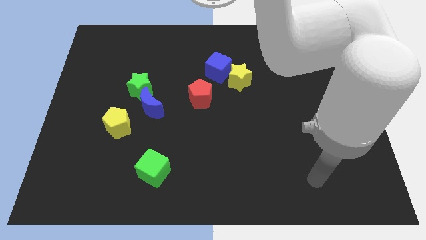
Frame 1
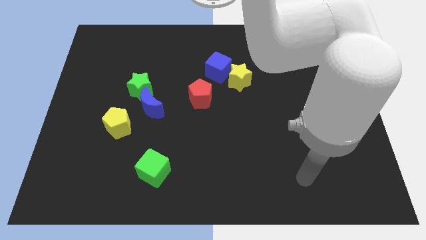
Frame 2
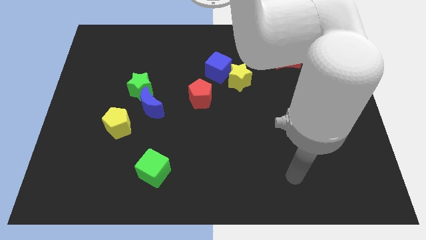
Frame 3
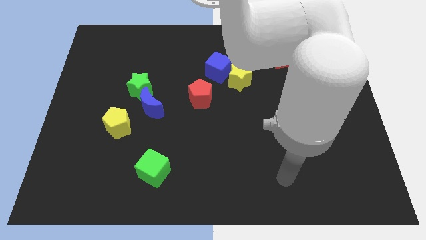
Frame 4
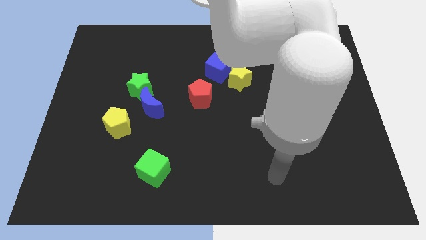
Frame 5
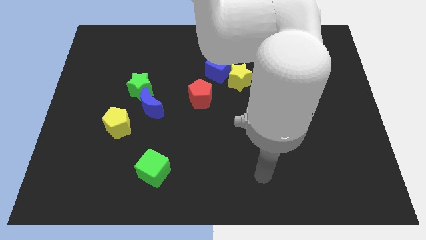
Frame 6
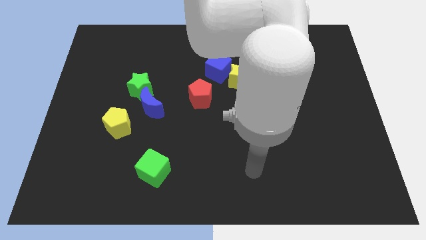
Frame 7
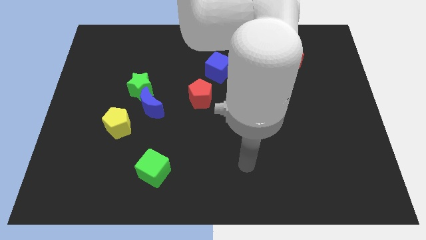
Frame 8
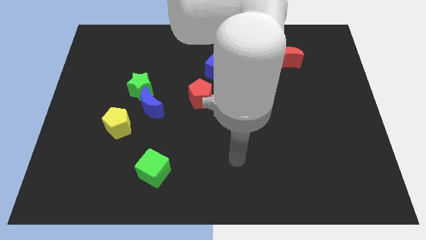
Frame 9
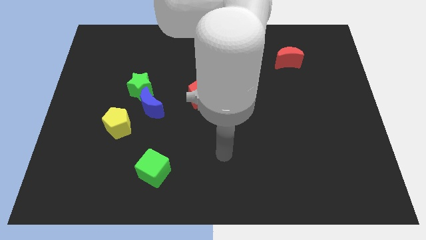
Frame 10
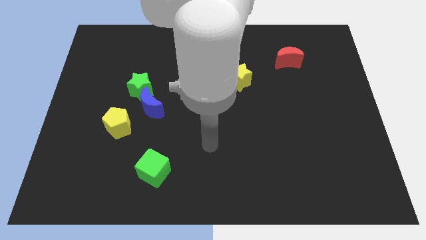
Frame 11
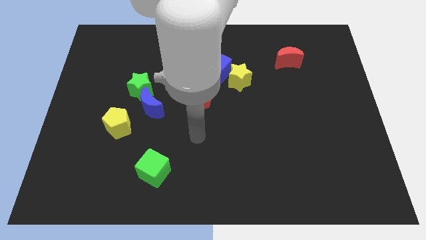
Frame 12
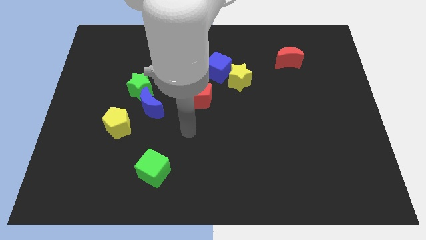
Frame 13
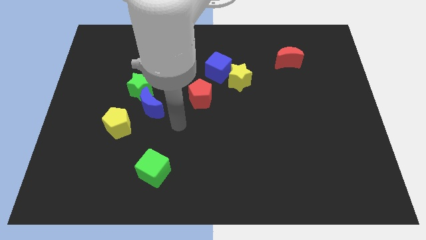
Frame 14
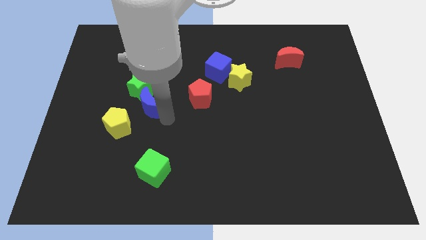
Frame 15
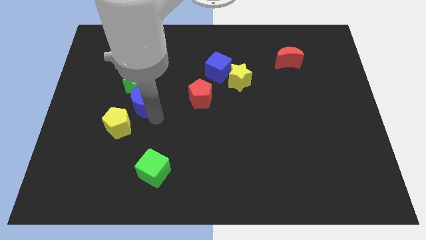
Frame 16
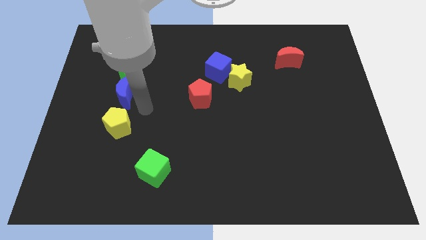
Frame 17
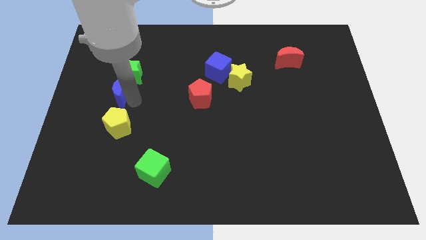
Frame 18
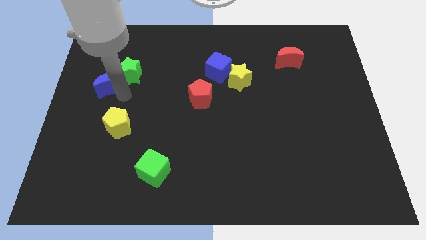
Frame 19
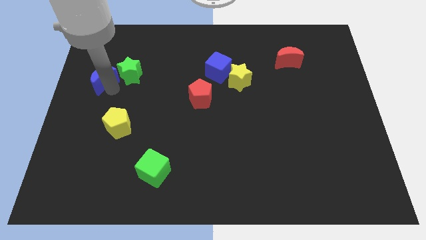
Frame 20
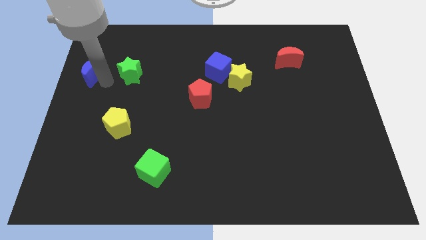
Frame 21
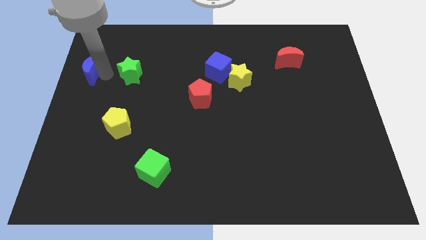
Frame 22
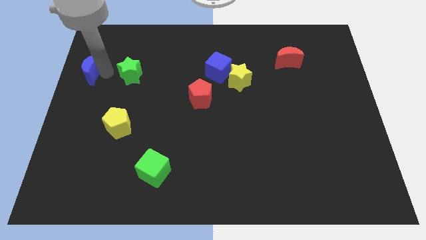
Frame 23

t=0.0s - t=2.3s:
pull the green star apart from the blue moon

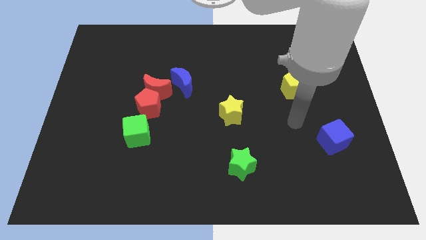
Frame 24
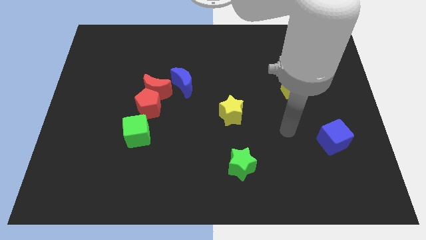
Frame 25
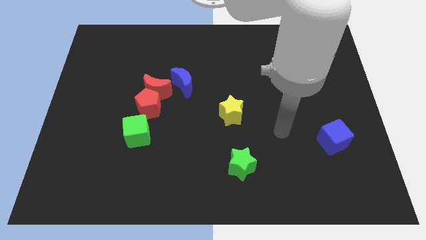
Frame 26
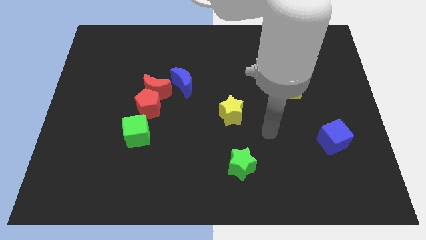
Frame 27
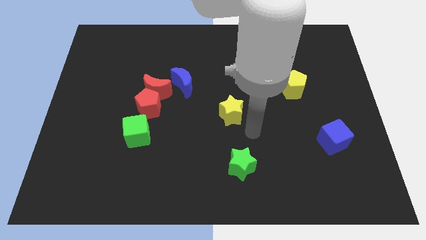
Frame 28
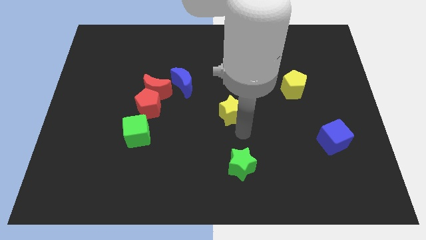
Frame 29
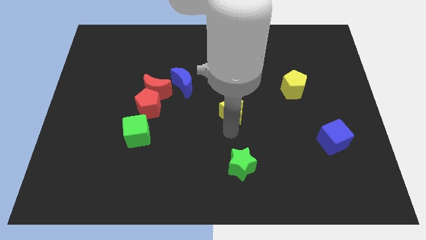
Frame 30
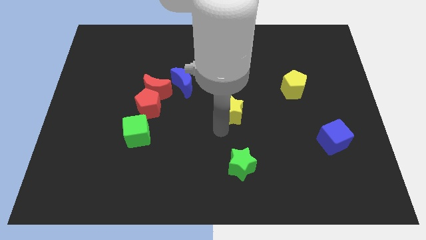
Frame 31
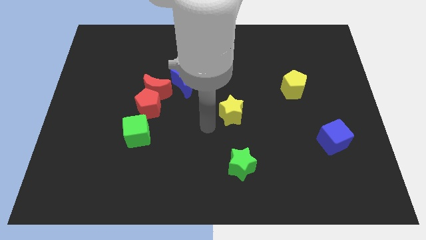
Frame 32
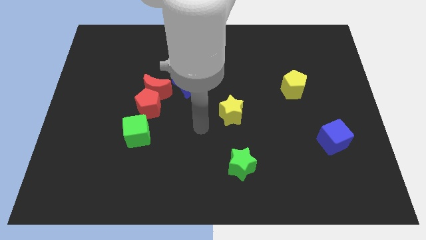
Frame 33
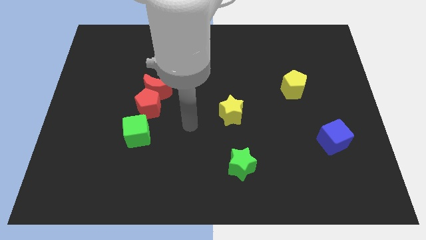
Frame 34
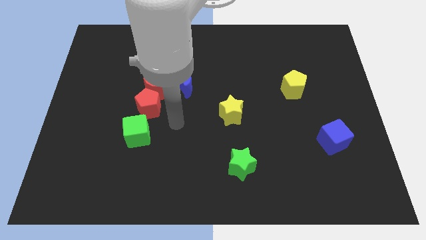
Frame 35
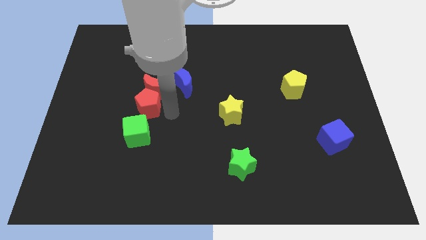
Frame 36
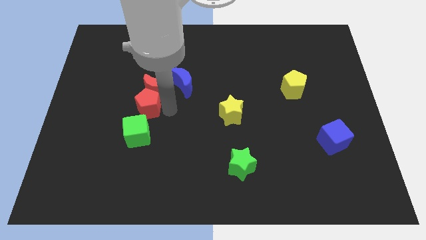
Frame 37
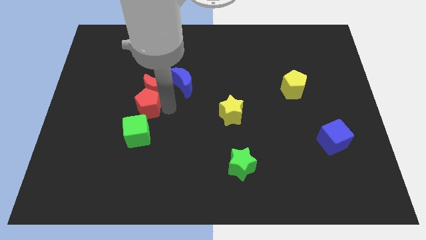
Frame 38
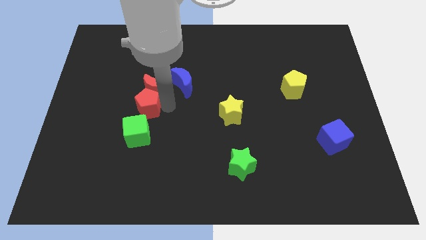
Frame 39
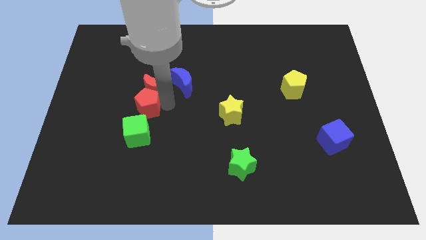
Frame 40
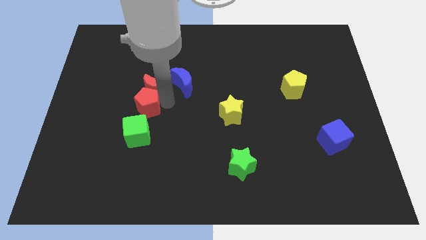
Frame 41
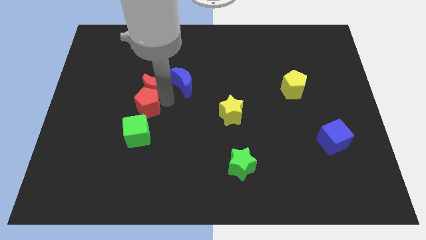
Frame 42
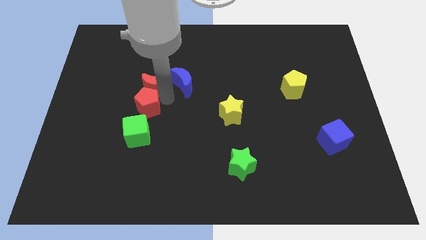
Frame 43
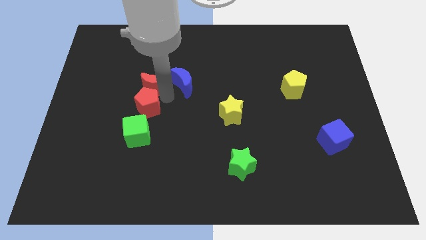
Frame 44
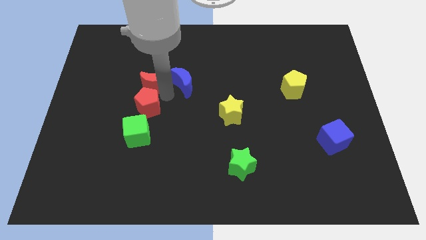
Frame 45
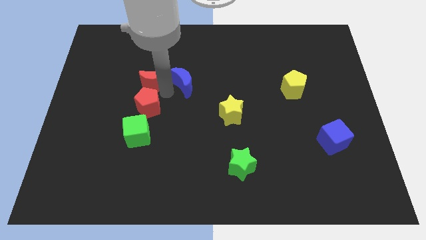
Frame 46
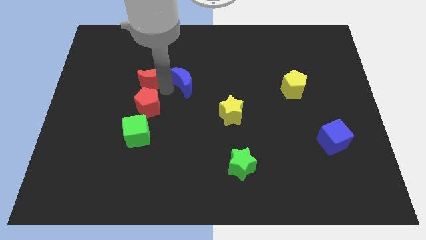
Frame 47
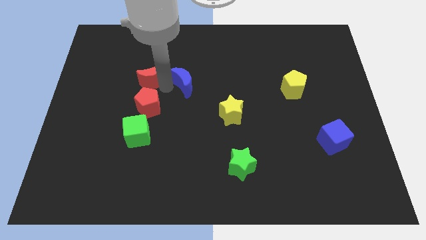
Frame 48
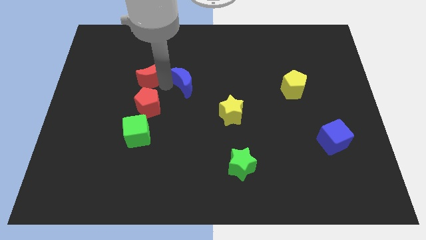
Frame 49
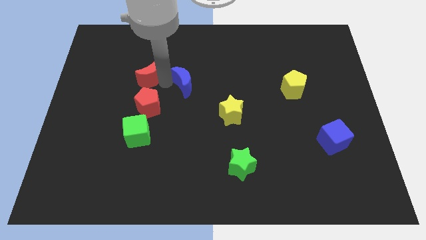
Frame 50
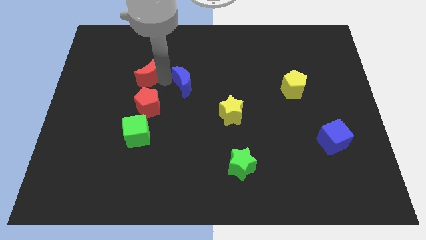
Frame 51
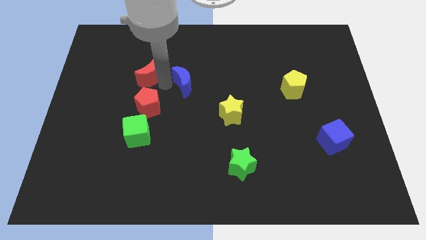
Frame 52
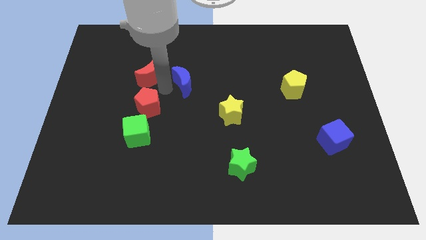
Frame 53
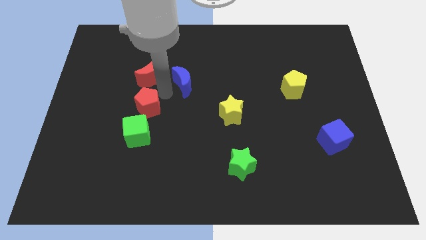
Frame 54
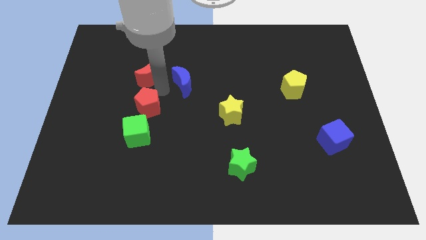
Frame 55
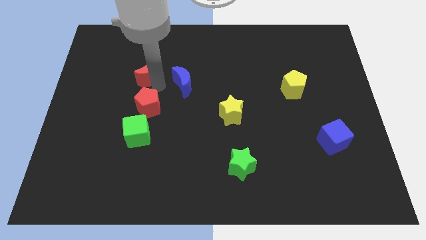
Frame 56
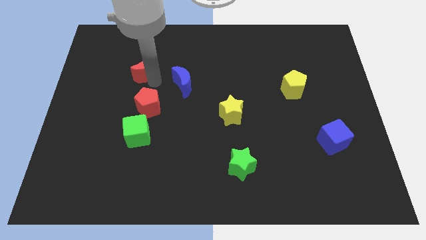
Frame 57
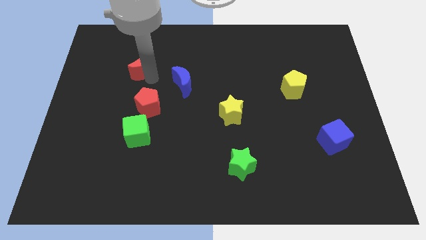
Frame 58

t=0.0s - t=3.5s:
move the red moon away from the red pentagon and blue moon

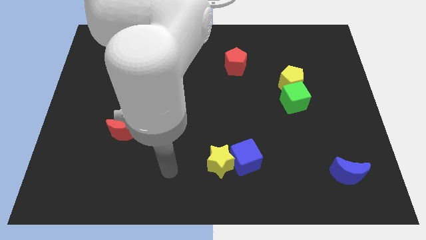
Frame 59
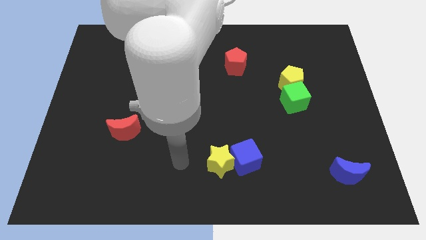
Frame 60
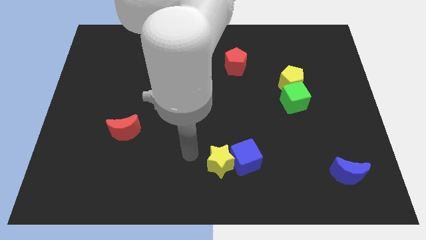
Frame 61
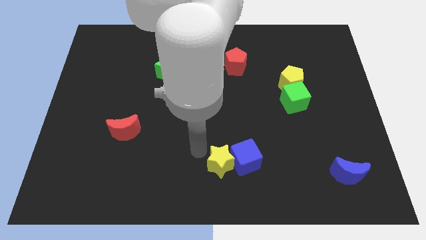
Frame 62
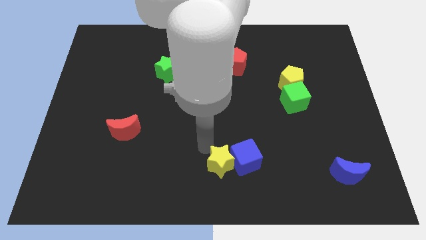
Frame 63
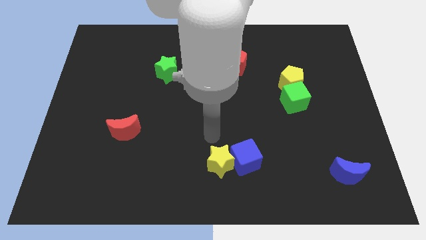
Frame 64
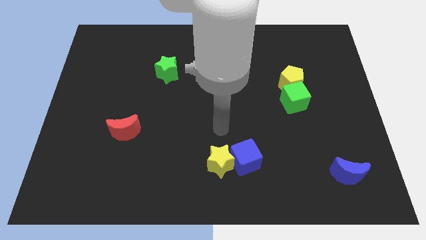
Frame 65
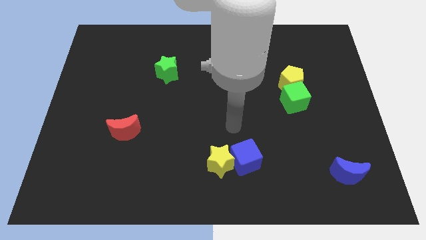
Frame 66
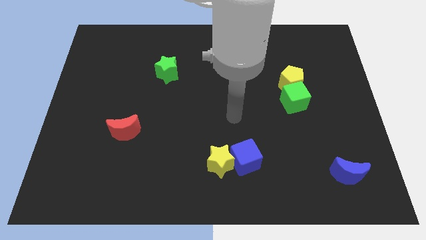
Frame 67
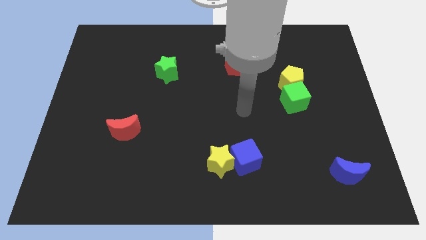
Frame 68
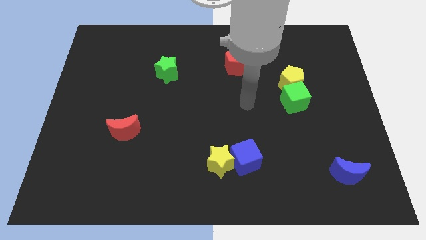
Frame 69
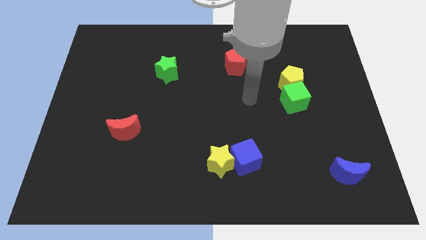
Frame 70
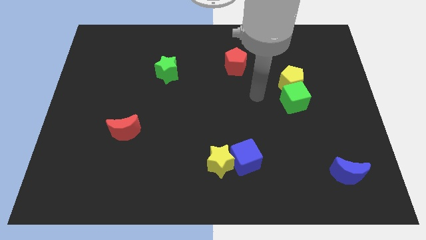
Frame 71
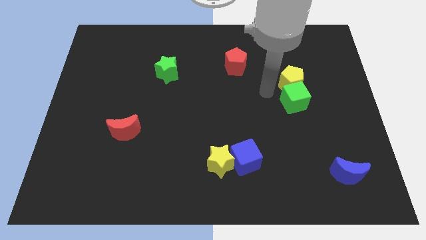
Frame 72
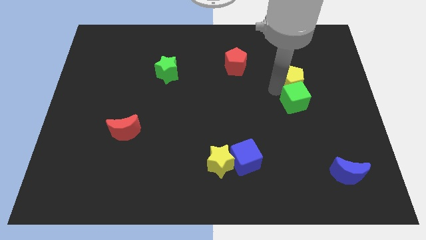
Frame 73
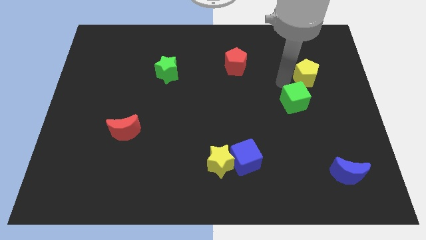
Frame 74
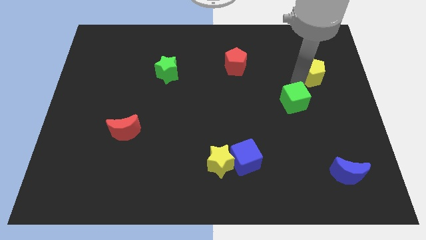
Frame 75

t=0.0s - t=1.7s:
separate the green cube from the yellow pentagon

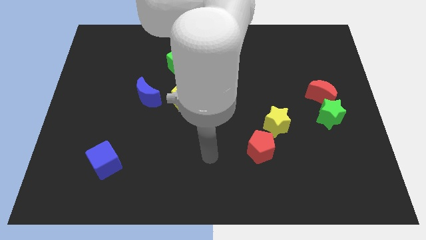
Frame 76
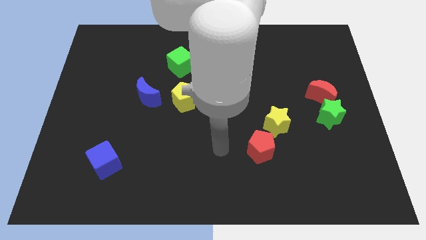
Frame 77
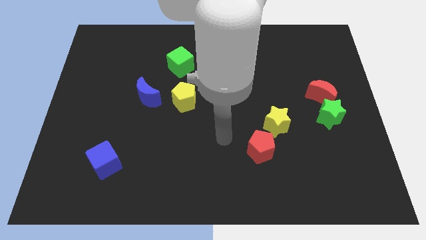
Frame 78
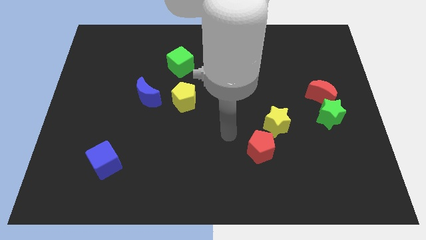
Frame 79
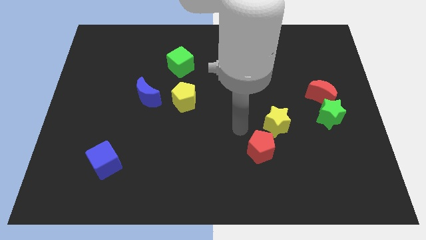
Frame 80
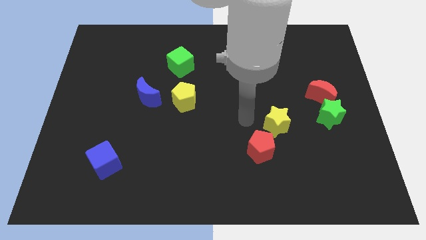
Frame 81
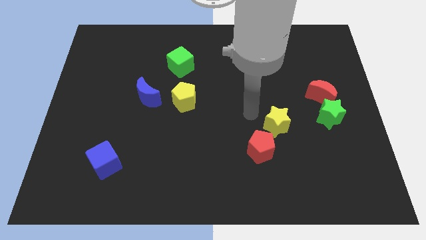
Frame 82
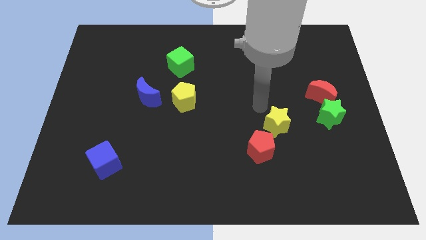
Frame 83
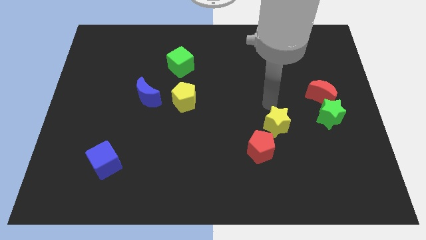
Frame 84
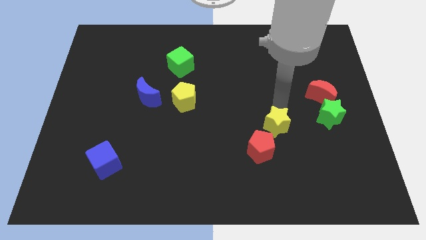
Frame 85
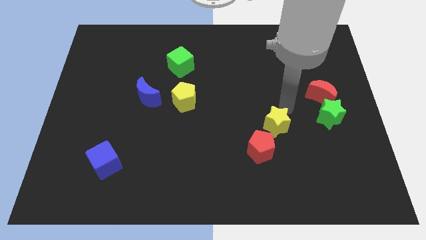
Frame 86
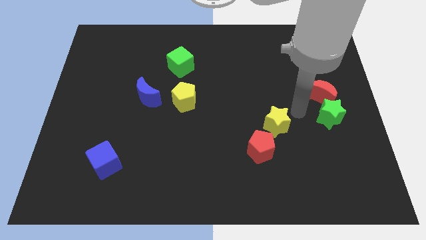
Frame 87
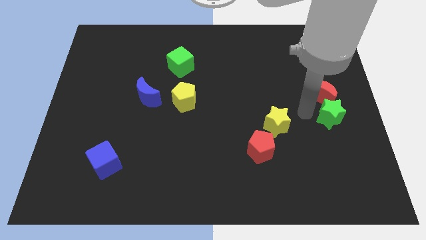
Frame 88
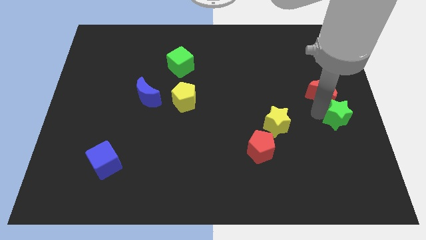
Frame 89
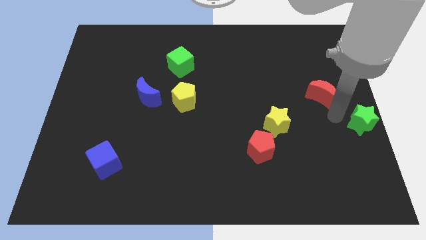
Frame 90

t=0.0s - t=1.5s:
move the red moon away from the green star

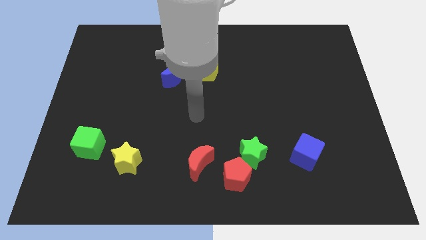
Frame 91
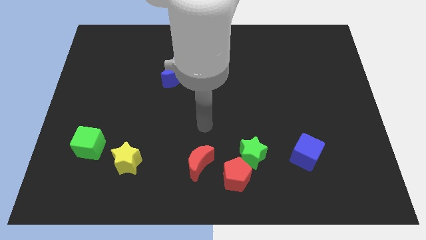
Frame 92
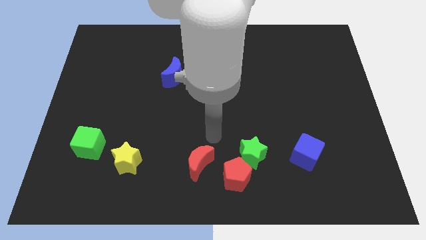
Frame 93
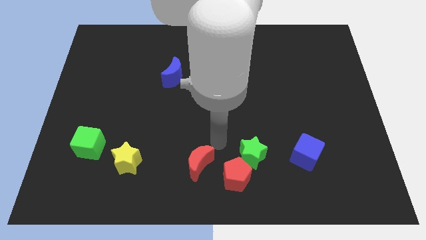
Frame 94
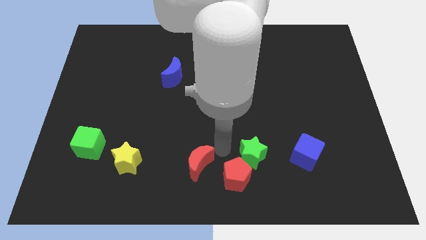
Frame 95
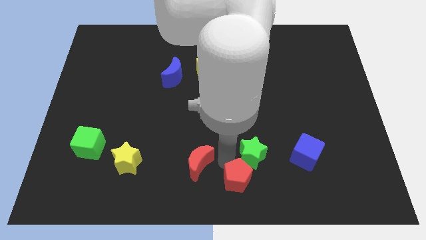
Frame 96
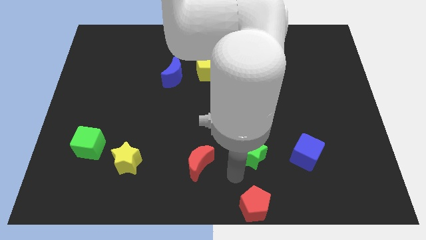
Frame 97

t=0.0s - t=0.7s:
pull the green star apart from the red pentagon
